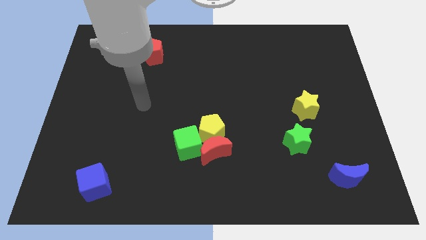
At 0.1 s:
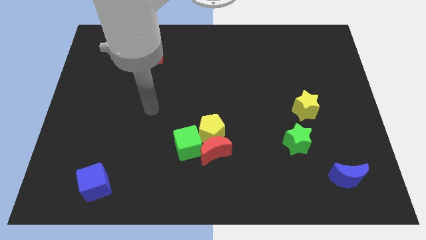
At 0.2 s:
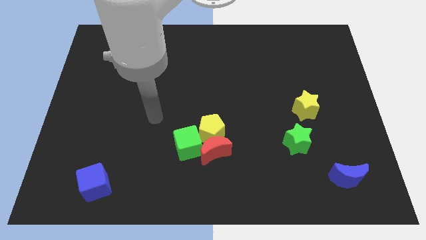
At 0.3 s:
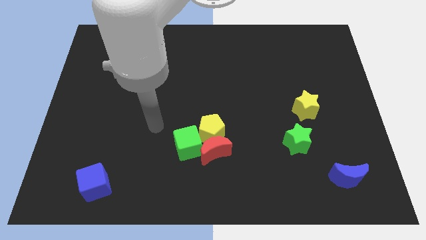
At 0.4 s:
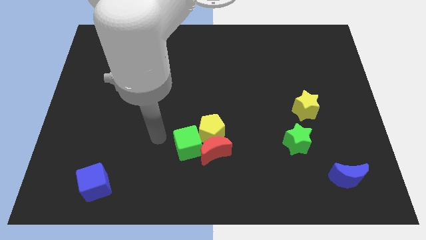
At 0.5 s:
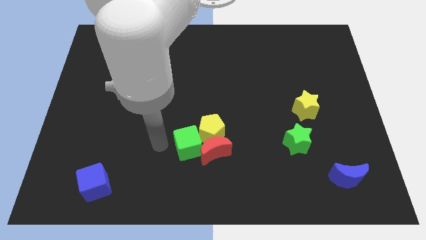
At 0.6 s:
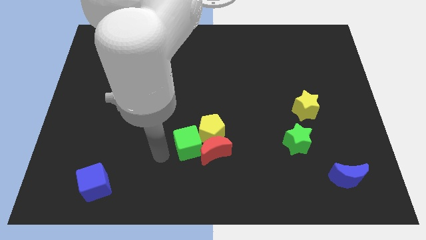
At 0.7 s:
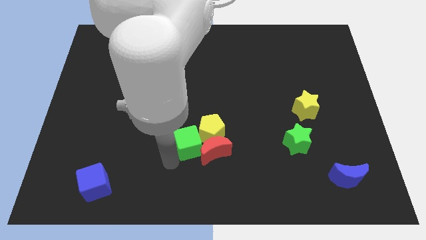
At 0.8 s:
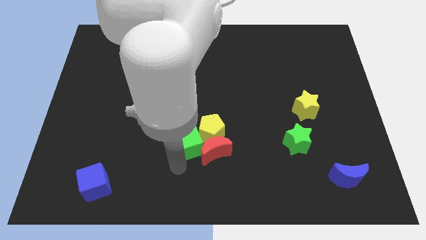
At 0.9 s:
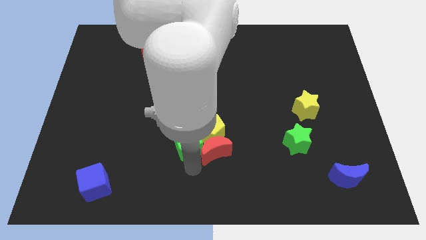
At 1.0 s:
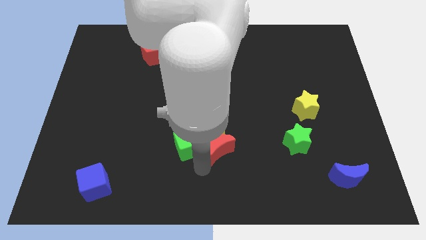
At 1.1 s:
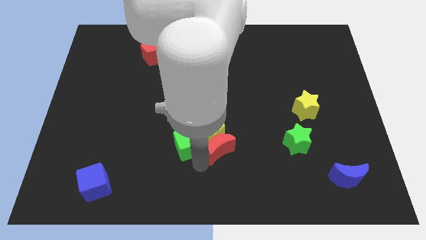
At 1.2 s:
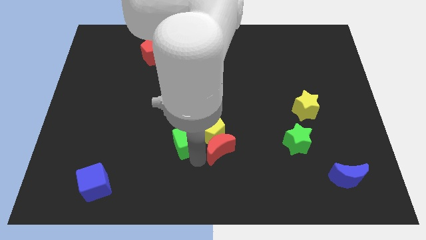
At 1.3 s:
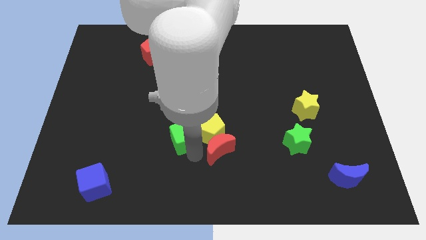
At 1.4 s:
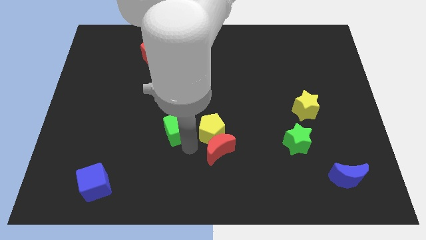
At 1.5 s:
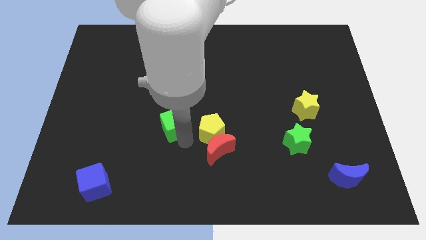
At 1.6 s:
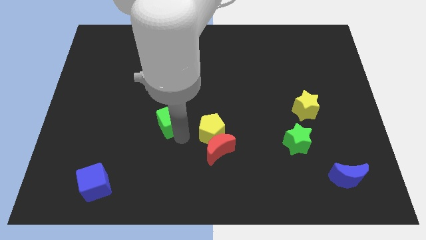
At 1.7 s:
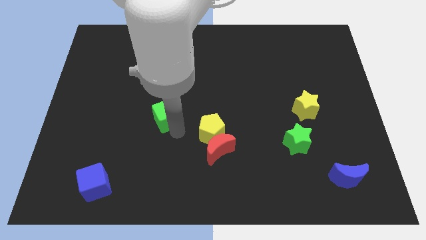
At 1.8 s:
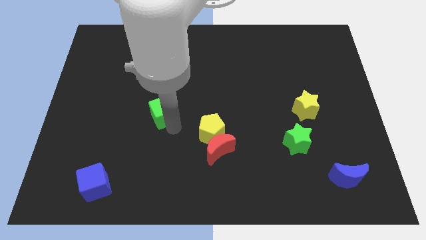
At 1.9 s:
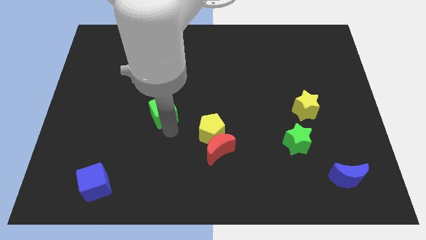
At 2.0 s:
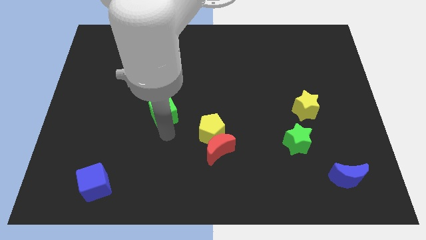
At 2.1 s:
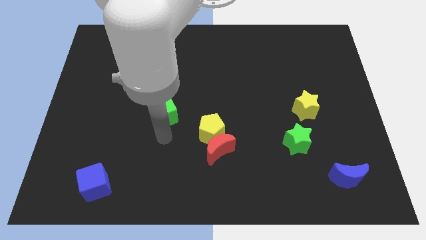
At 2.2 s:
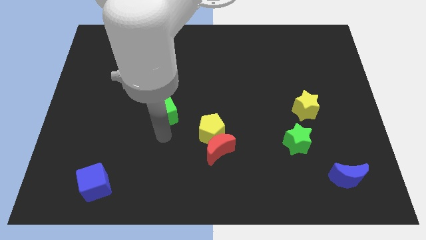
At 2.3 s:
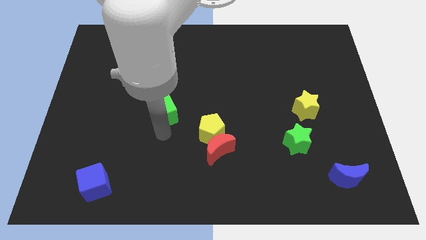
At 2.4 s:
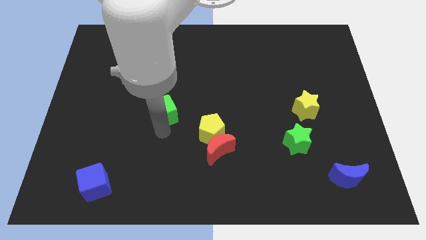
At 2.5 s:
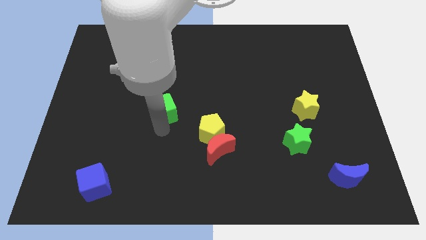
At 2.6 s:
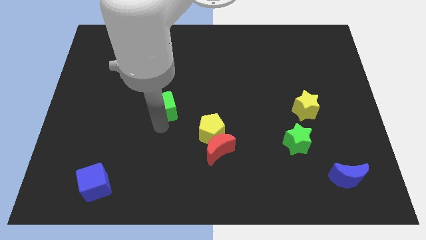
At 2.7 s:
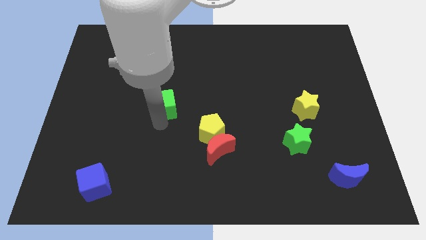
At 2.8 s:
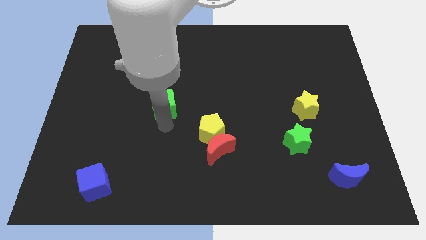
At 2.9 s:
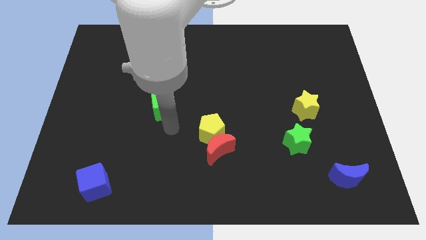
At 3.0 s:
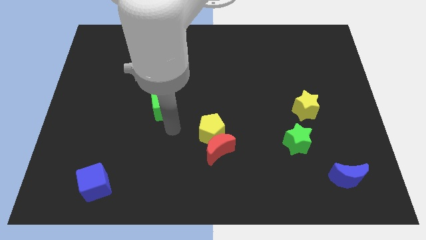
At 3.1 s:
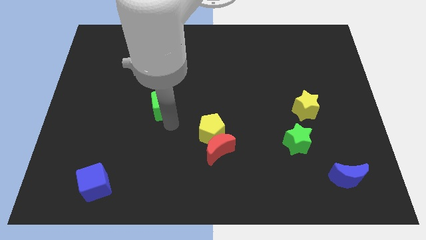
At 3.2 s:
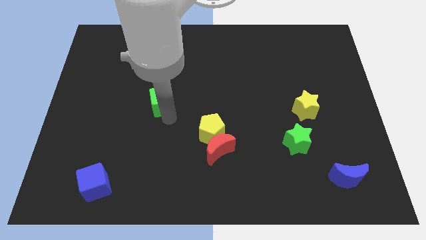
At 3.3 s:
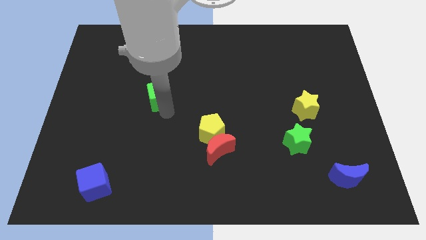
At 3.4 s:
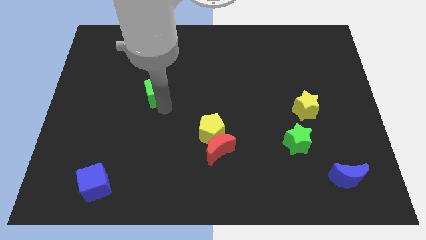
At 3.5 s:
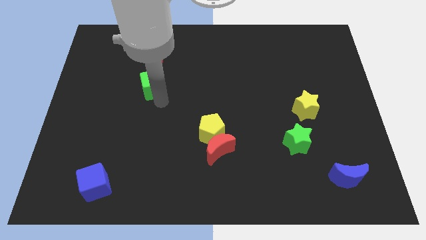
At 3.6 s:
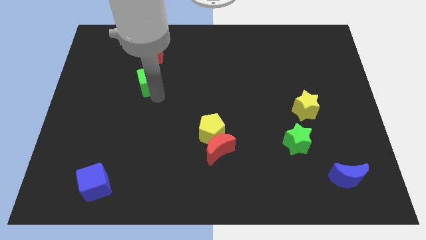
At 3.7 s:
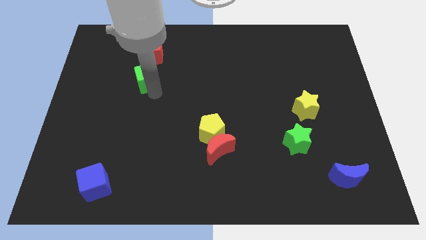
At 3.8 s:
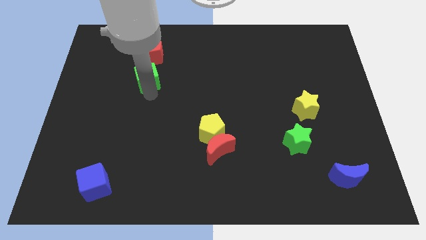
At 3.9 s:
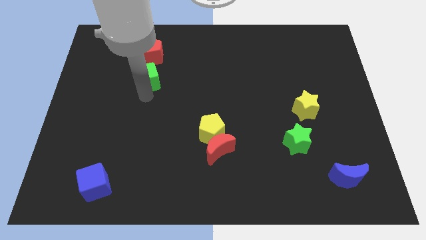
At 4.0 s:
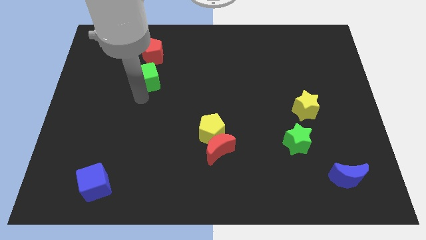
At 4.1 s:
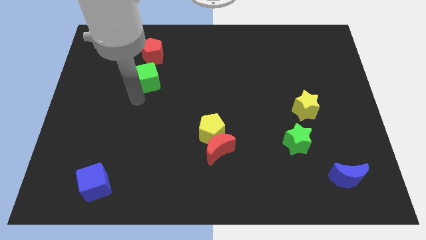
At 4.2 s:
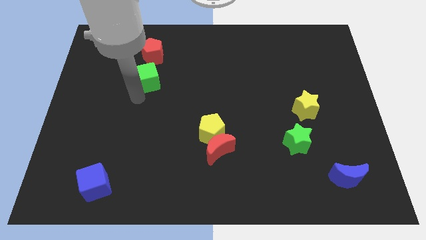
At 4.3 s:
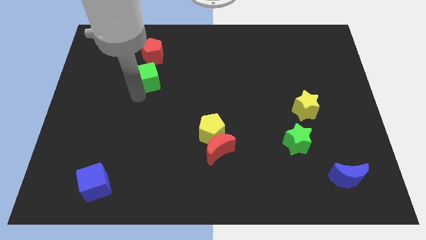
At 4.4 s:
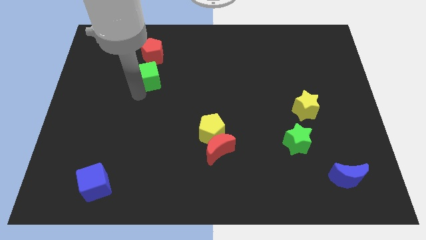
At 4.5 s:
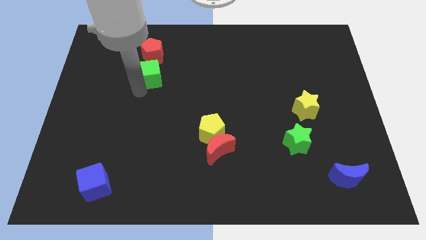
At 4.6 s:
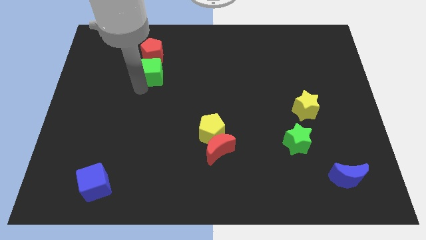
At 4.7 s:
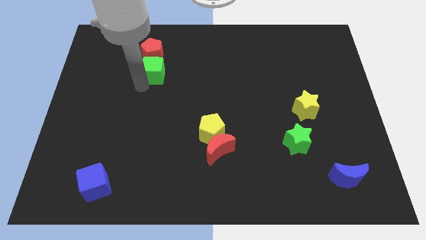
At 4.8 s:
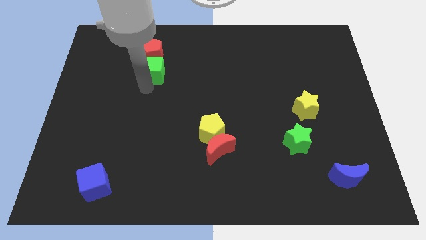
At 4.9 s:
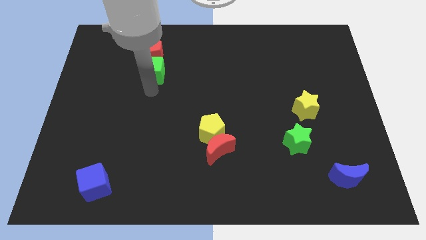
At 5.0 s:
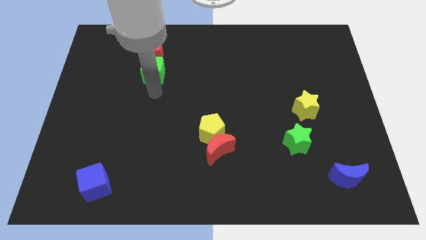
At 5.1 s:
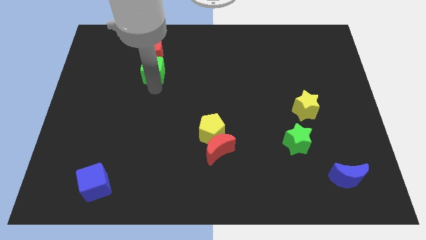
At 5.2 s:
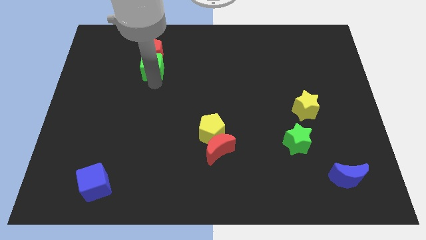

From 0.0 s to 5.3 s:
move the green cube next to the red pentagon

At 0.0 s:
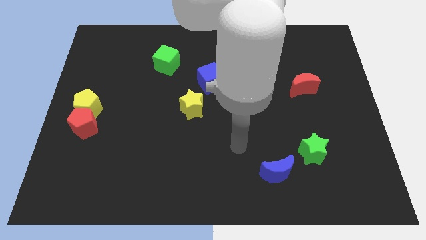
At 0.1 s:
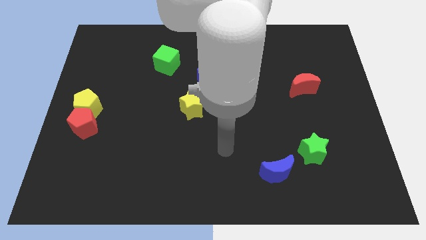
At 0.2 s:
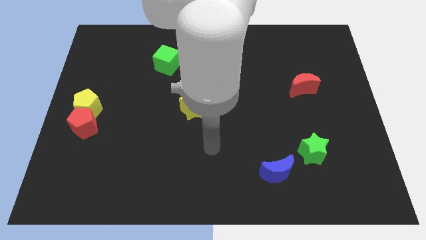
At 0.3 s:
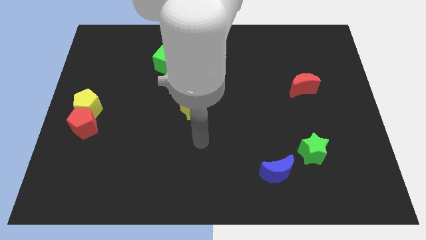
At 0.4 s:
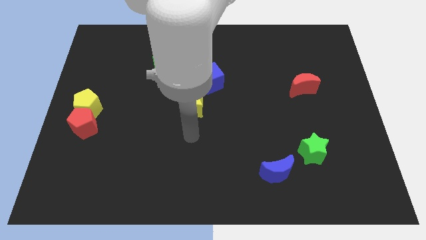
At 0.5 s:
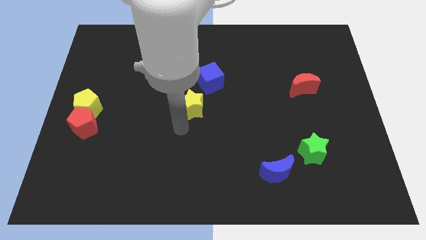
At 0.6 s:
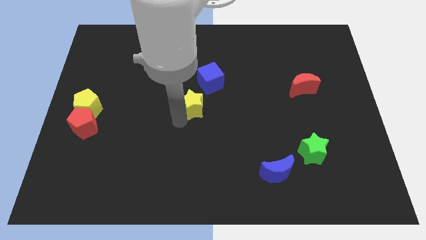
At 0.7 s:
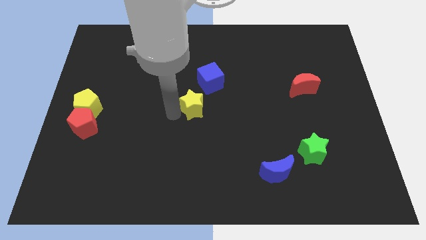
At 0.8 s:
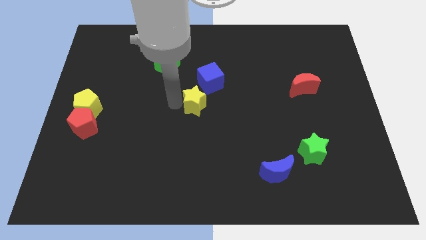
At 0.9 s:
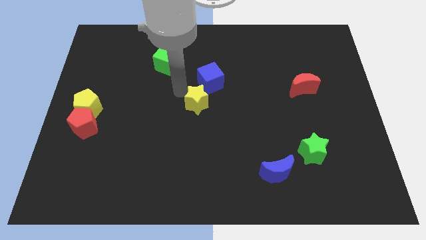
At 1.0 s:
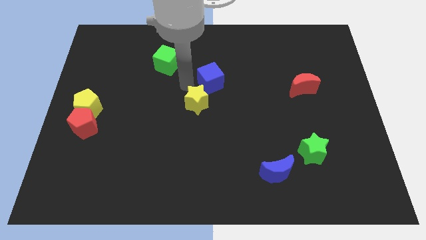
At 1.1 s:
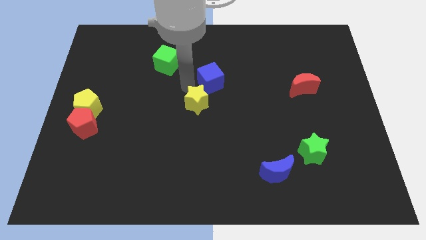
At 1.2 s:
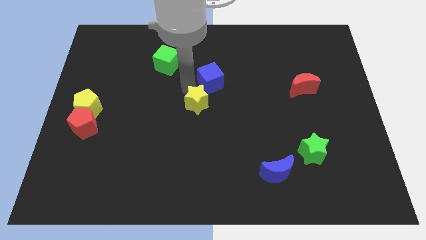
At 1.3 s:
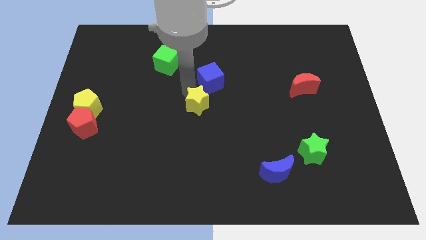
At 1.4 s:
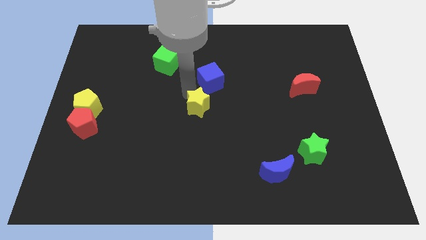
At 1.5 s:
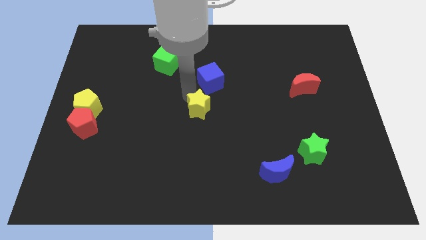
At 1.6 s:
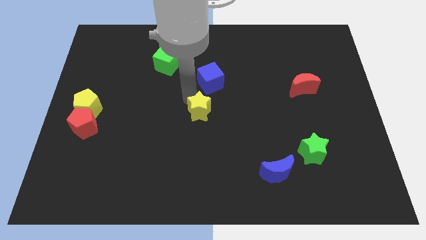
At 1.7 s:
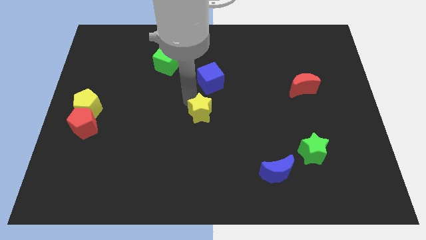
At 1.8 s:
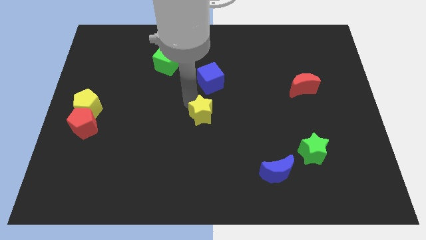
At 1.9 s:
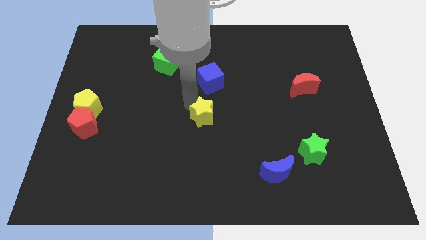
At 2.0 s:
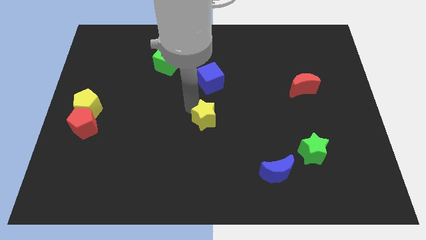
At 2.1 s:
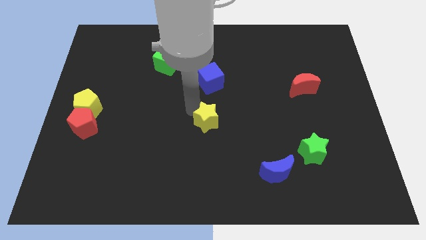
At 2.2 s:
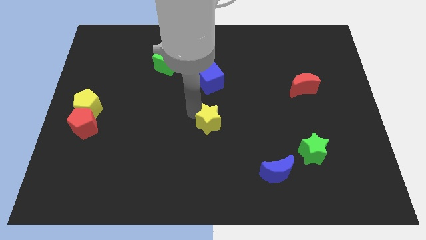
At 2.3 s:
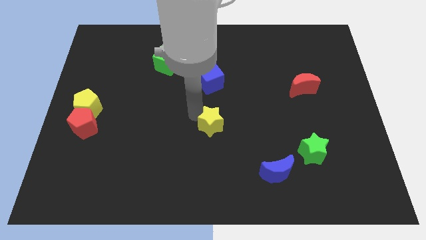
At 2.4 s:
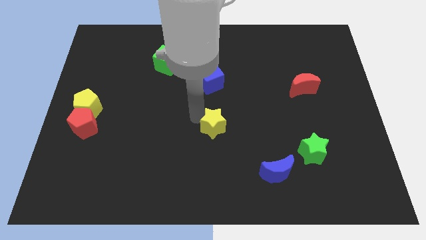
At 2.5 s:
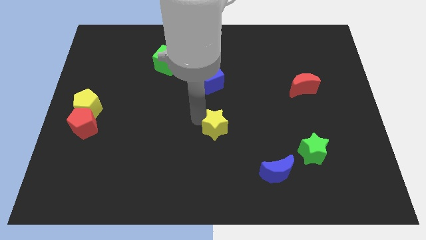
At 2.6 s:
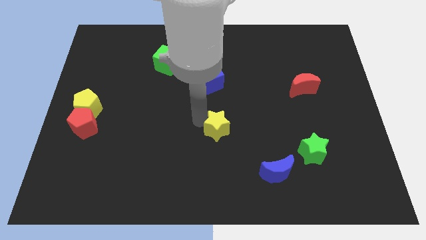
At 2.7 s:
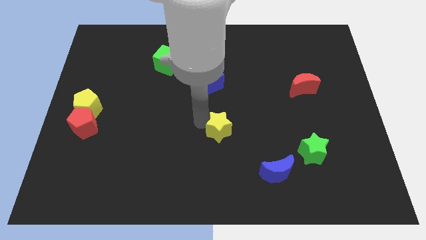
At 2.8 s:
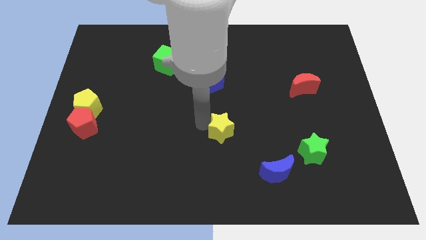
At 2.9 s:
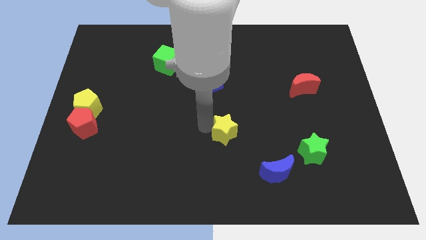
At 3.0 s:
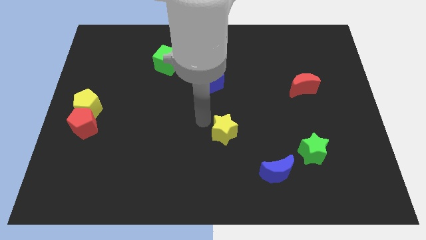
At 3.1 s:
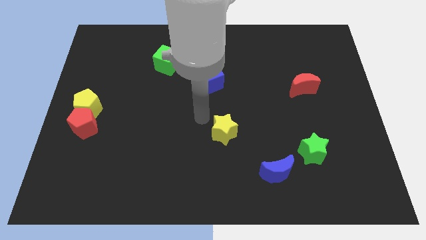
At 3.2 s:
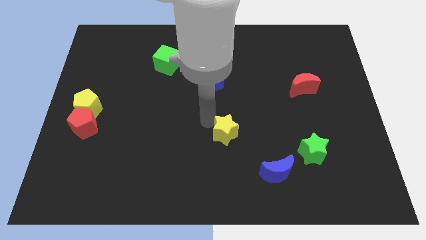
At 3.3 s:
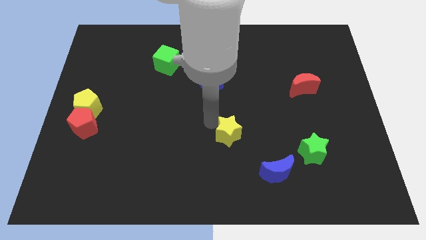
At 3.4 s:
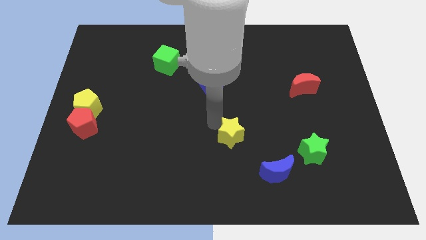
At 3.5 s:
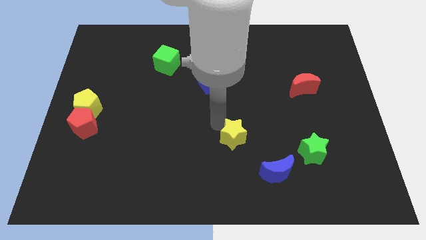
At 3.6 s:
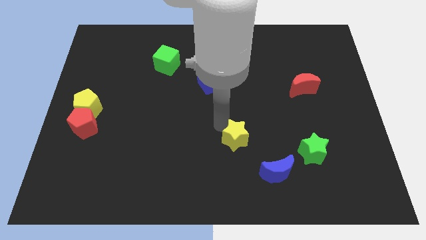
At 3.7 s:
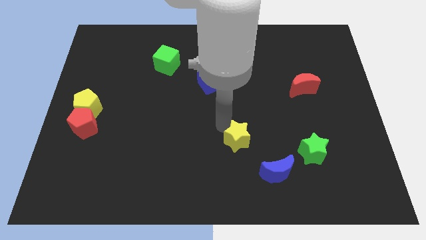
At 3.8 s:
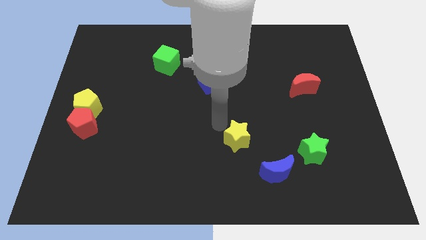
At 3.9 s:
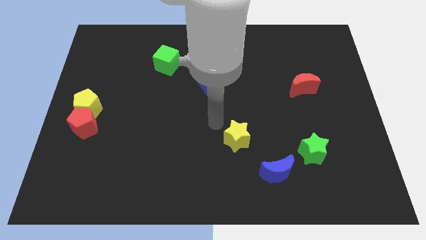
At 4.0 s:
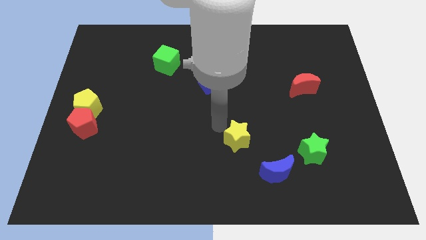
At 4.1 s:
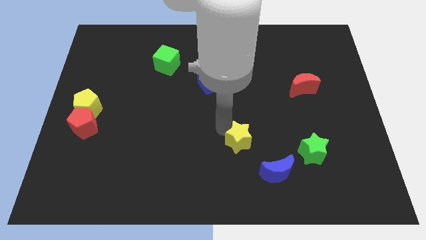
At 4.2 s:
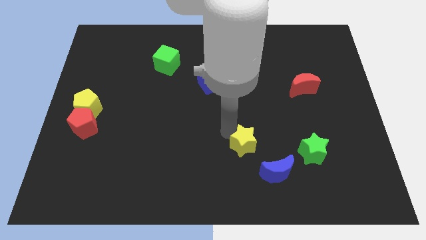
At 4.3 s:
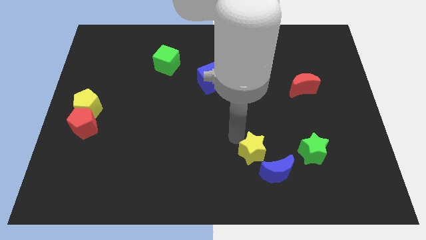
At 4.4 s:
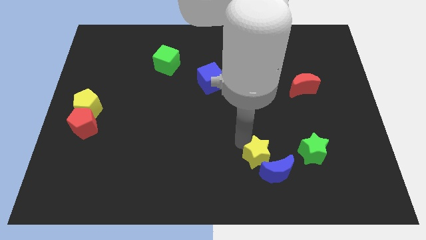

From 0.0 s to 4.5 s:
put the yellow star close to the blue moon
